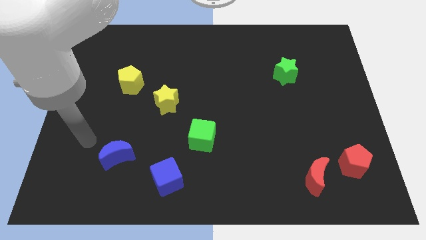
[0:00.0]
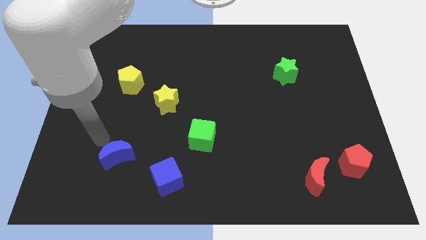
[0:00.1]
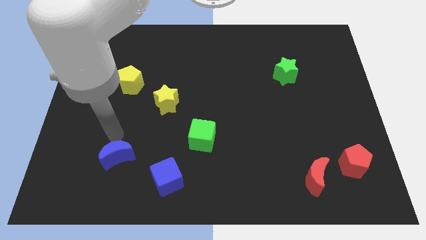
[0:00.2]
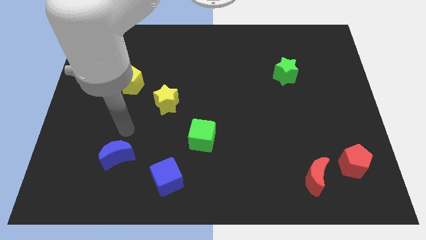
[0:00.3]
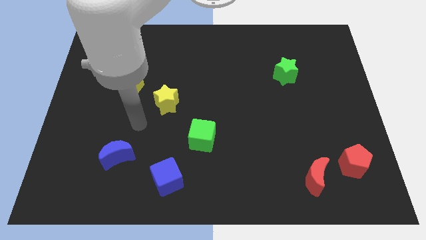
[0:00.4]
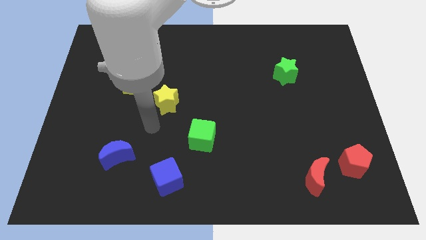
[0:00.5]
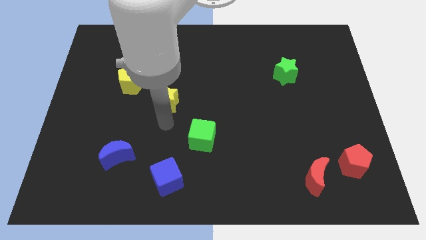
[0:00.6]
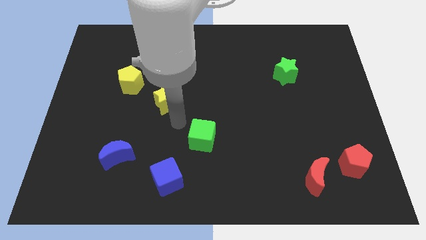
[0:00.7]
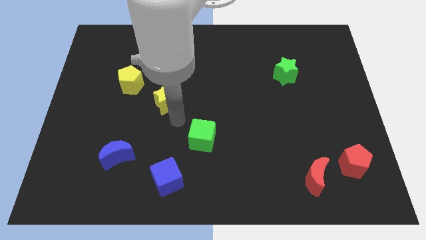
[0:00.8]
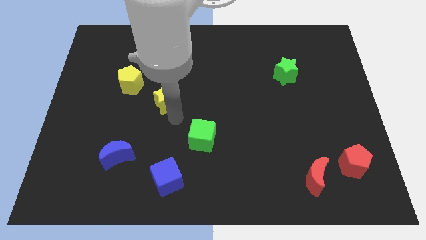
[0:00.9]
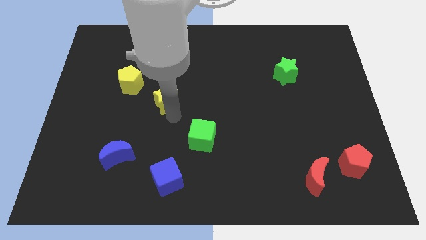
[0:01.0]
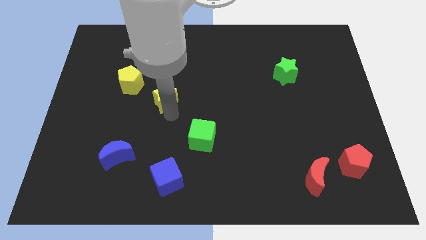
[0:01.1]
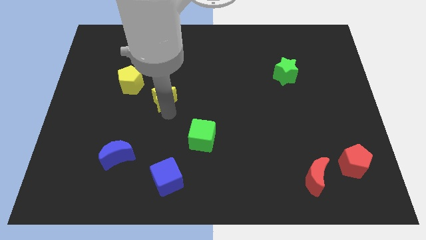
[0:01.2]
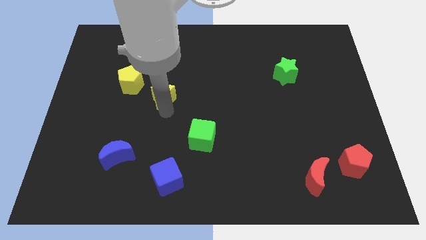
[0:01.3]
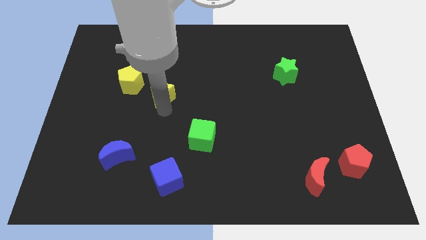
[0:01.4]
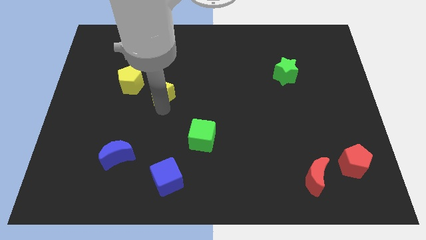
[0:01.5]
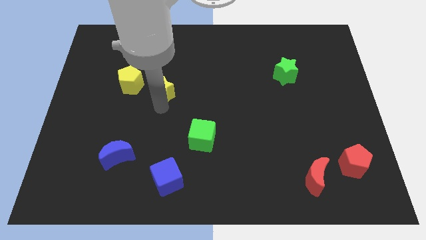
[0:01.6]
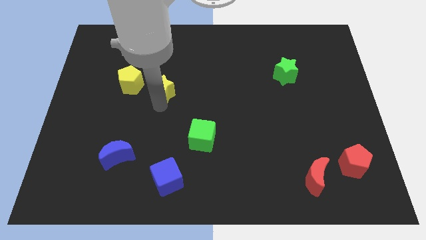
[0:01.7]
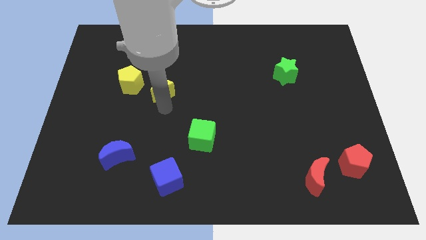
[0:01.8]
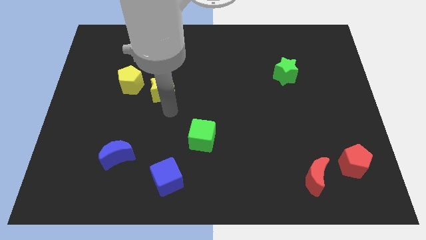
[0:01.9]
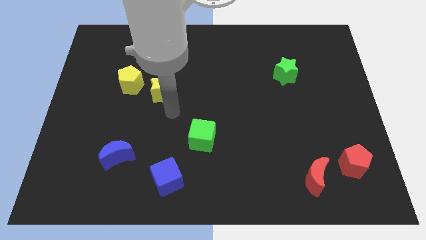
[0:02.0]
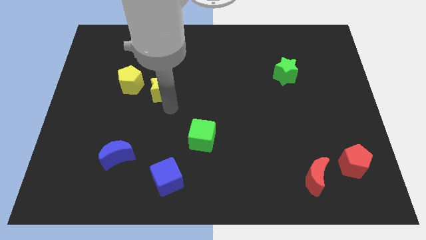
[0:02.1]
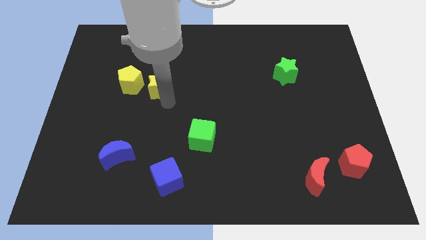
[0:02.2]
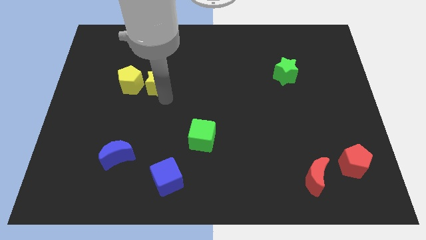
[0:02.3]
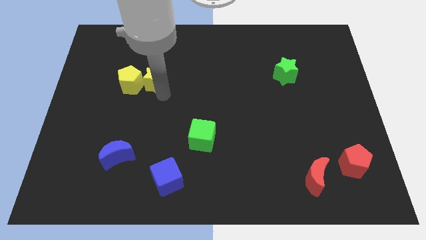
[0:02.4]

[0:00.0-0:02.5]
push the yellow star somewhat up and to the left

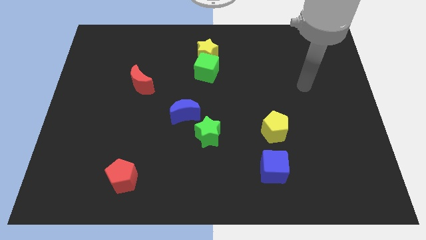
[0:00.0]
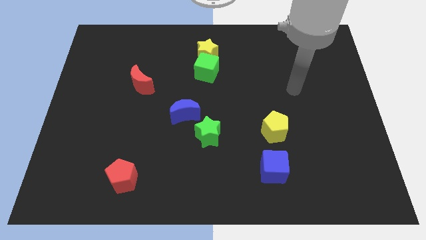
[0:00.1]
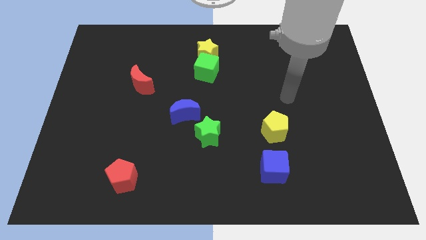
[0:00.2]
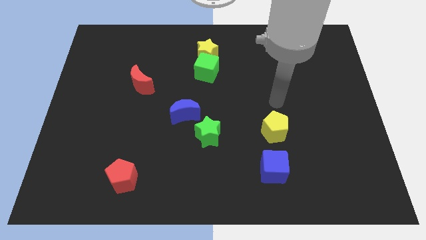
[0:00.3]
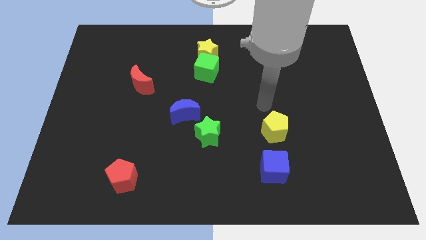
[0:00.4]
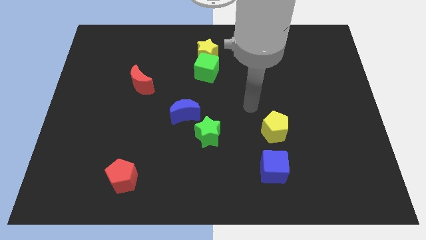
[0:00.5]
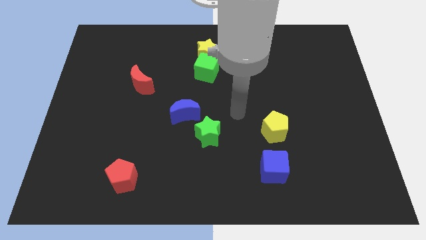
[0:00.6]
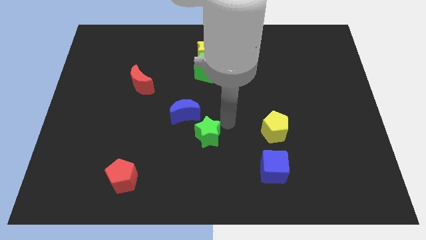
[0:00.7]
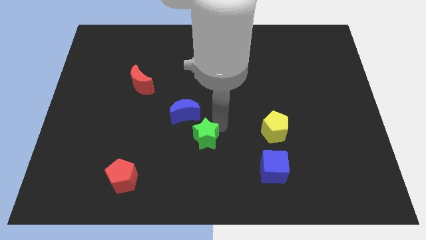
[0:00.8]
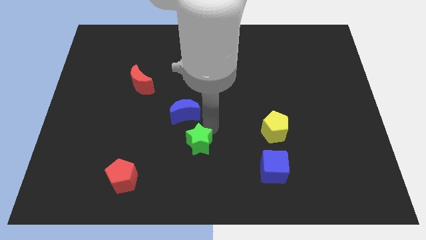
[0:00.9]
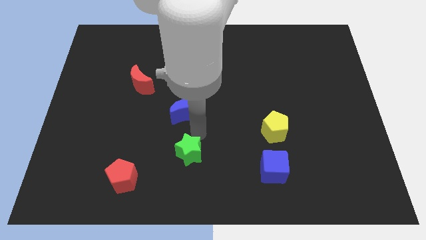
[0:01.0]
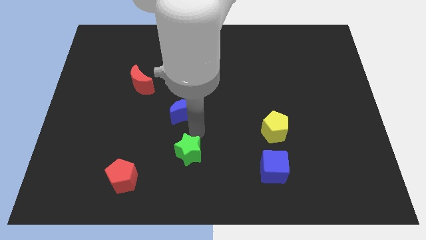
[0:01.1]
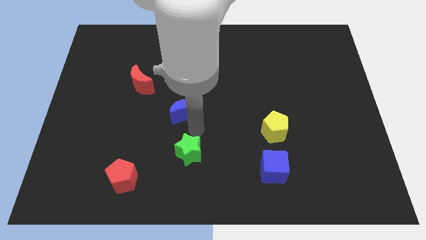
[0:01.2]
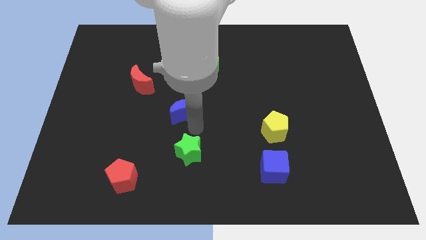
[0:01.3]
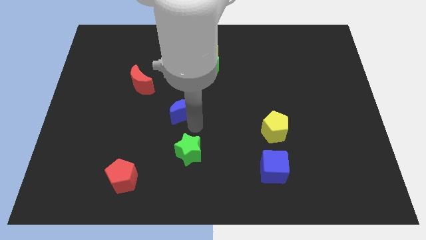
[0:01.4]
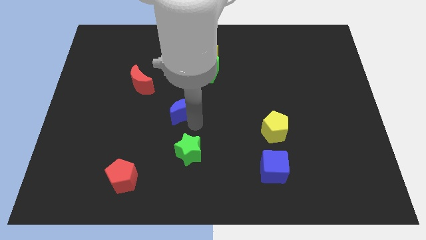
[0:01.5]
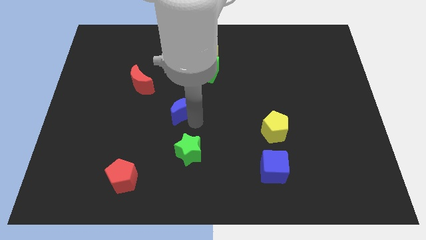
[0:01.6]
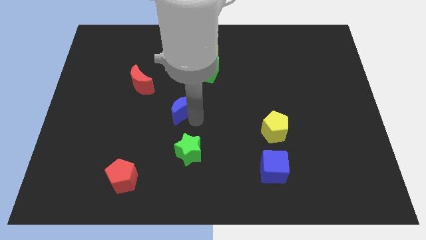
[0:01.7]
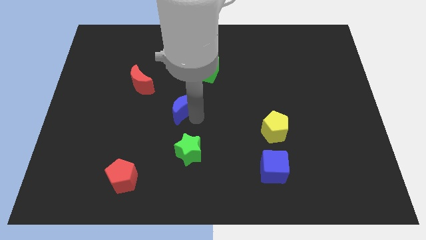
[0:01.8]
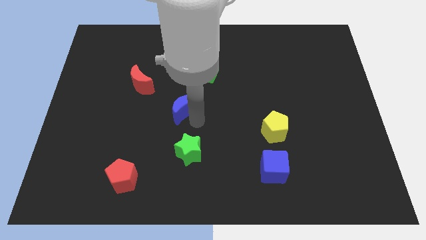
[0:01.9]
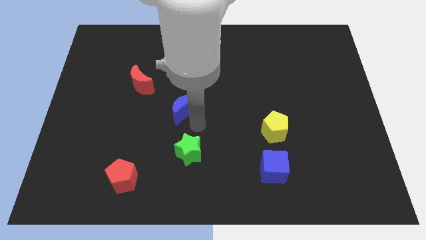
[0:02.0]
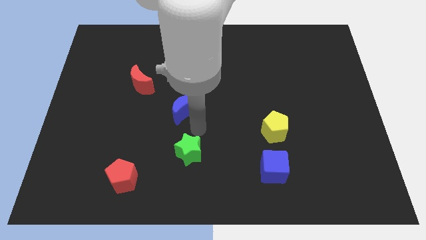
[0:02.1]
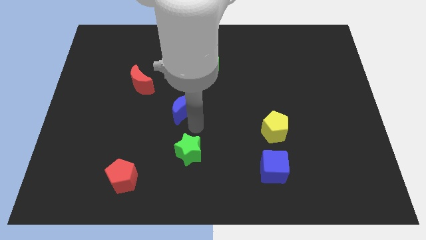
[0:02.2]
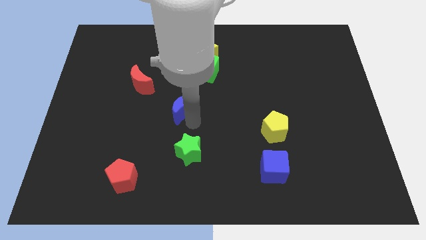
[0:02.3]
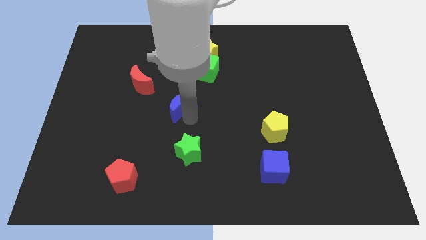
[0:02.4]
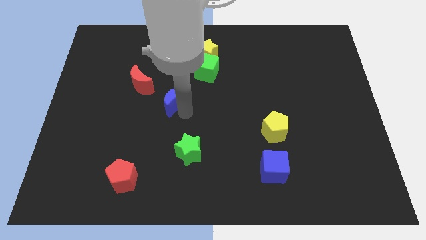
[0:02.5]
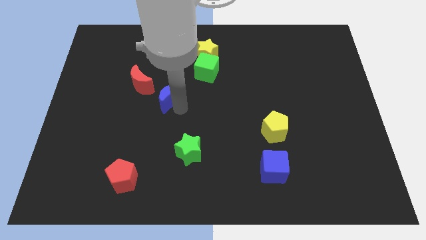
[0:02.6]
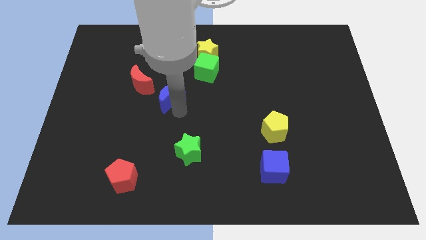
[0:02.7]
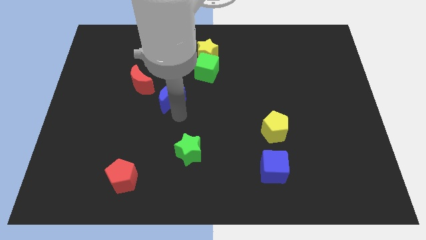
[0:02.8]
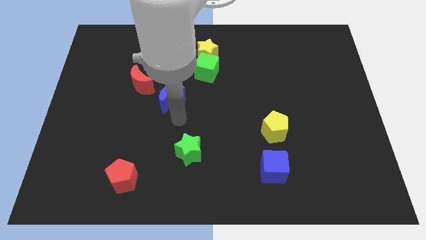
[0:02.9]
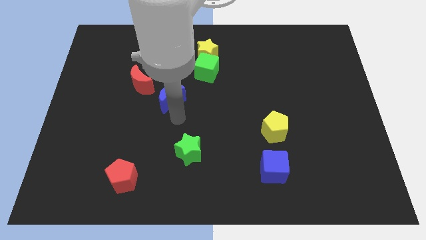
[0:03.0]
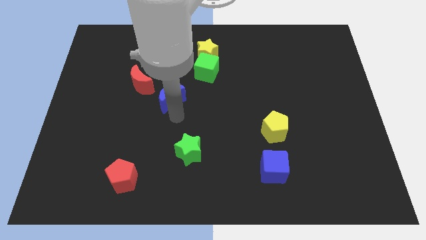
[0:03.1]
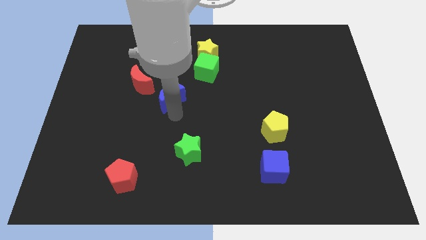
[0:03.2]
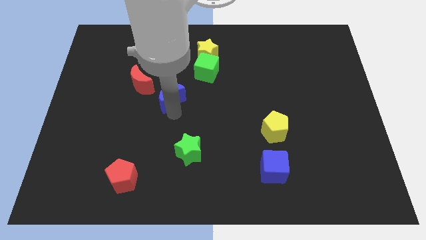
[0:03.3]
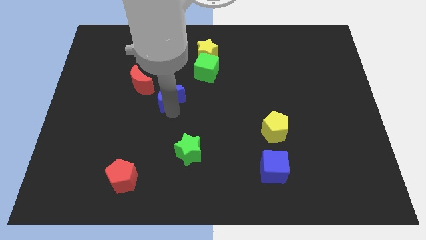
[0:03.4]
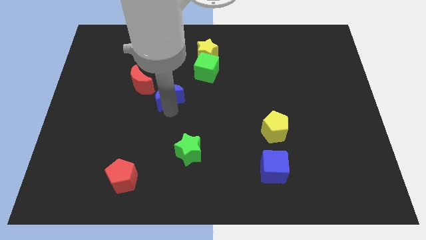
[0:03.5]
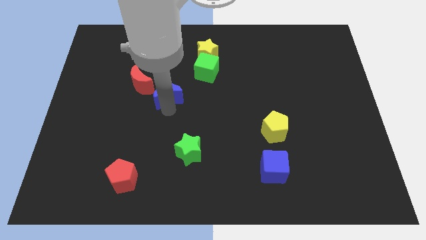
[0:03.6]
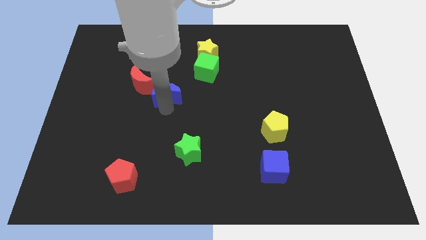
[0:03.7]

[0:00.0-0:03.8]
slightly slide the blue moon diagonally upwards and left

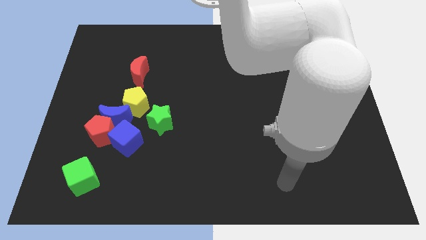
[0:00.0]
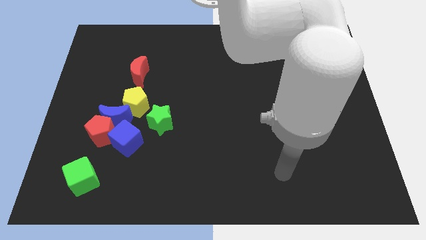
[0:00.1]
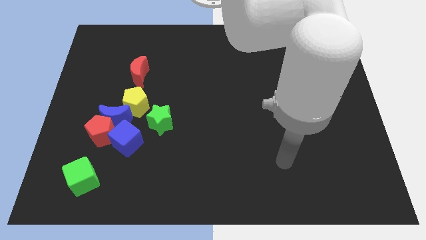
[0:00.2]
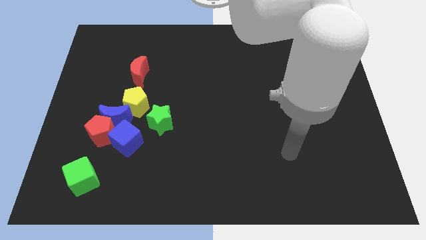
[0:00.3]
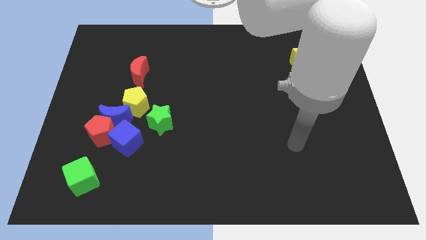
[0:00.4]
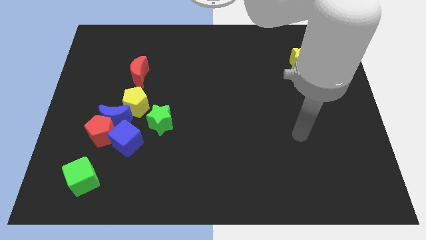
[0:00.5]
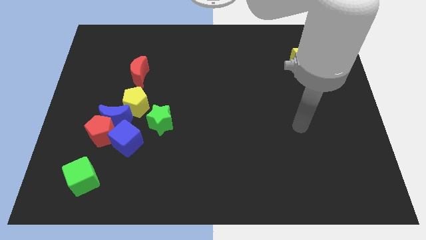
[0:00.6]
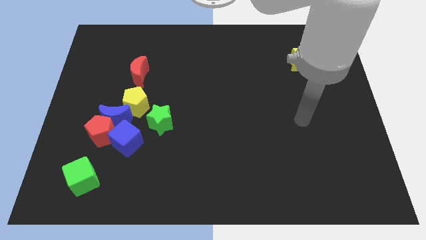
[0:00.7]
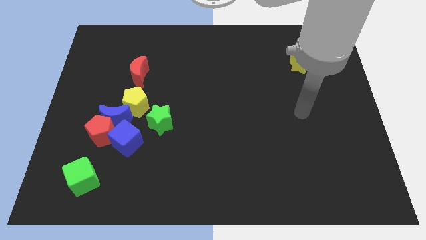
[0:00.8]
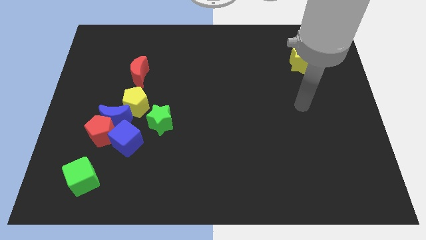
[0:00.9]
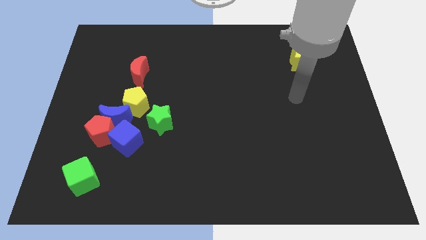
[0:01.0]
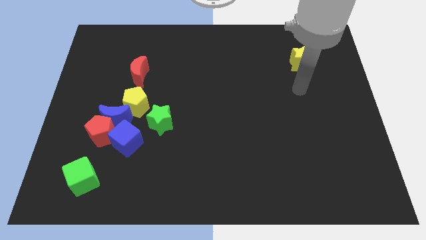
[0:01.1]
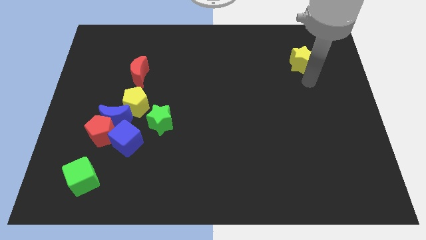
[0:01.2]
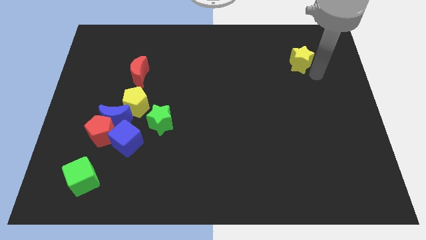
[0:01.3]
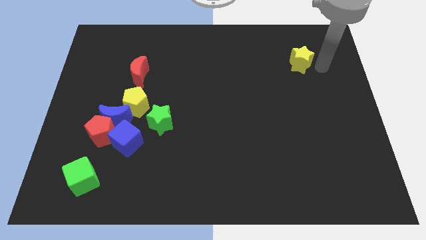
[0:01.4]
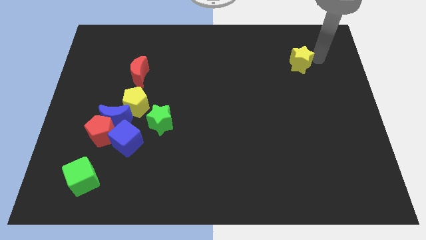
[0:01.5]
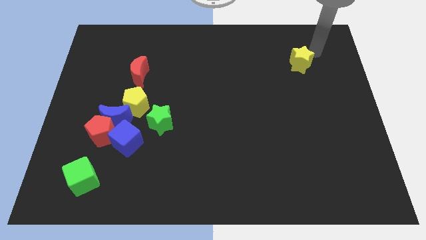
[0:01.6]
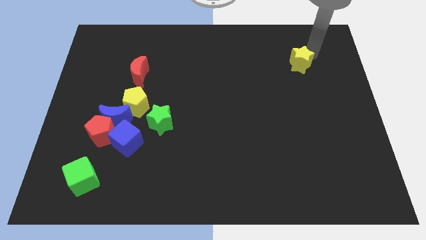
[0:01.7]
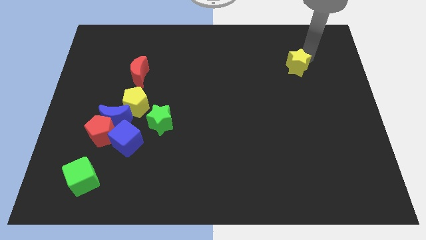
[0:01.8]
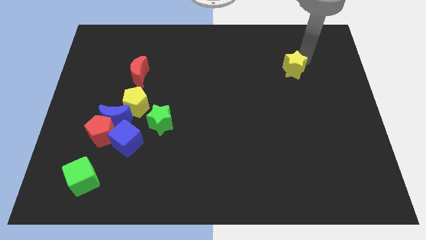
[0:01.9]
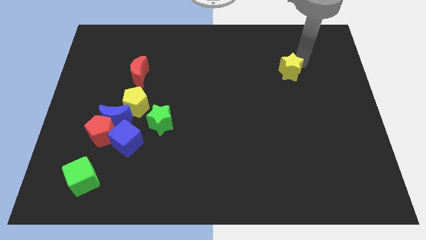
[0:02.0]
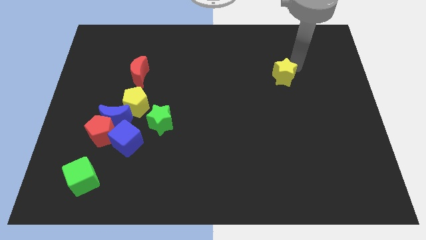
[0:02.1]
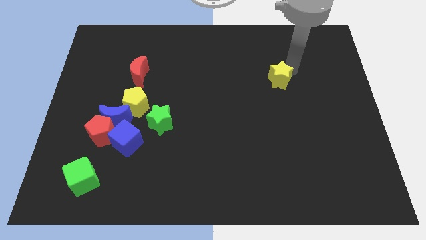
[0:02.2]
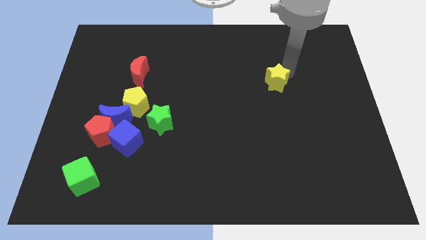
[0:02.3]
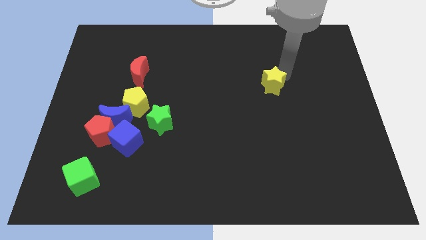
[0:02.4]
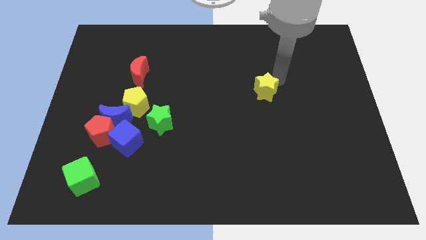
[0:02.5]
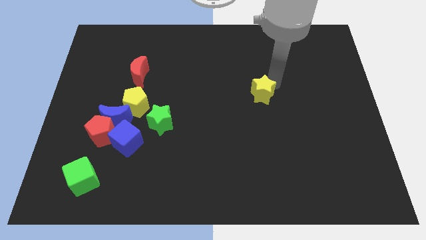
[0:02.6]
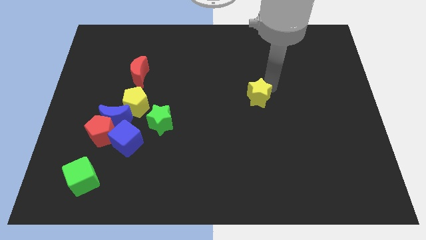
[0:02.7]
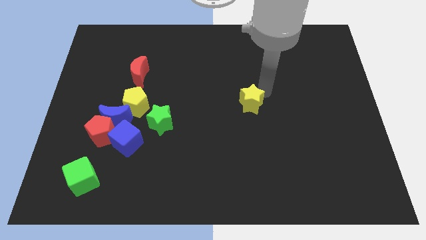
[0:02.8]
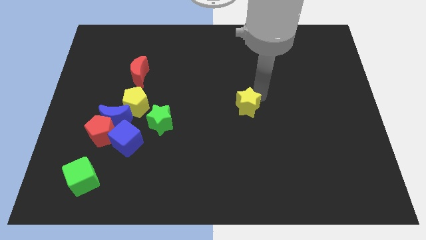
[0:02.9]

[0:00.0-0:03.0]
slide the yellow star diagonally downwards and to the left
